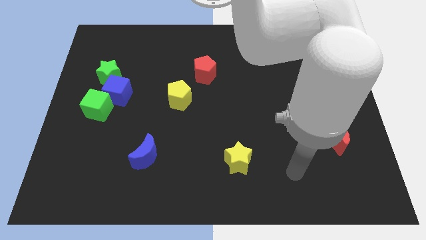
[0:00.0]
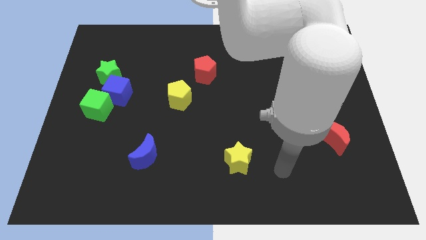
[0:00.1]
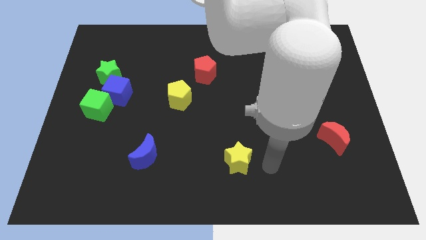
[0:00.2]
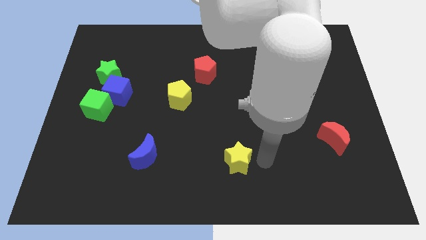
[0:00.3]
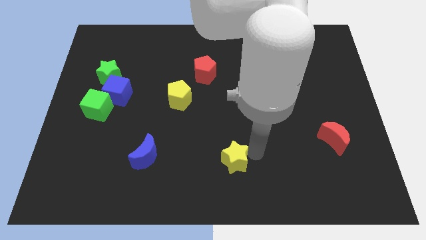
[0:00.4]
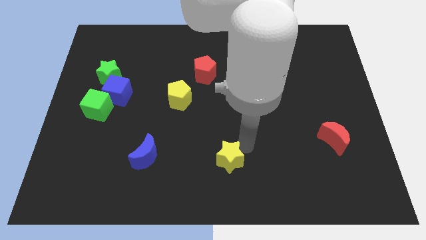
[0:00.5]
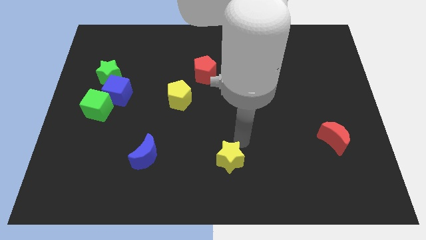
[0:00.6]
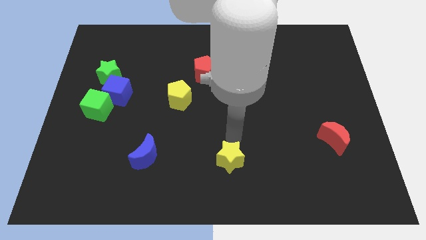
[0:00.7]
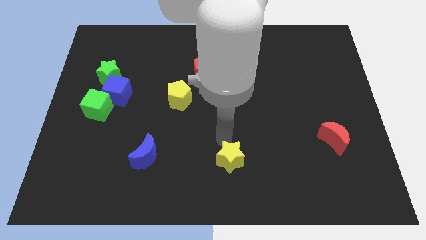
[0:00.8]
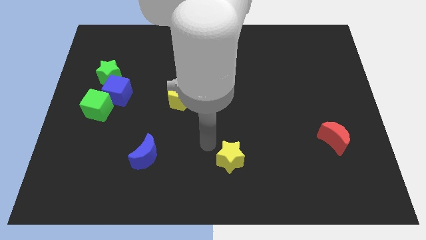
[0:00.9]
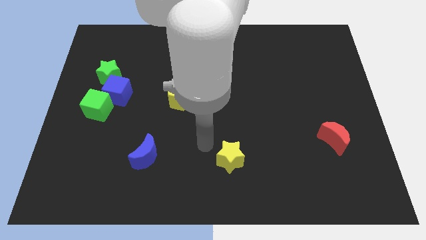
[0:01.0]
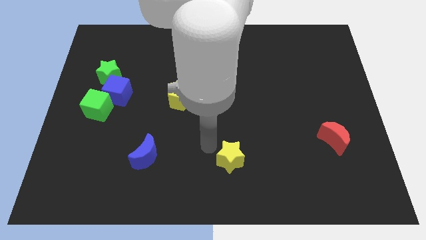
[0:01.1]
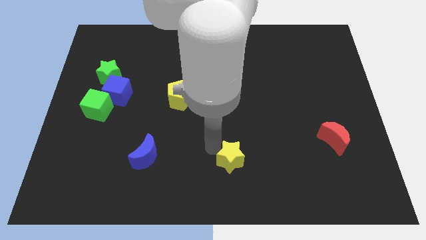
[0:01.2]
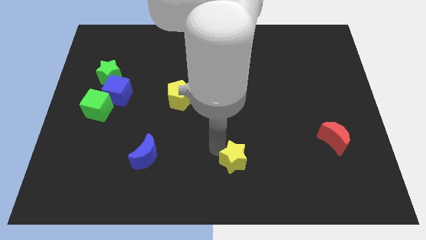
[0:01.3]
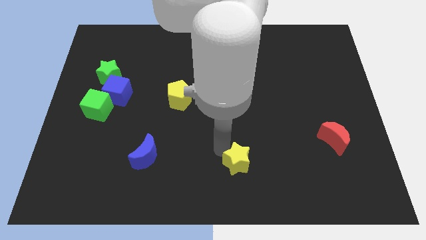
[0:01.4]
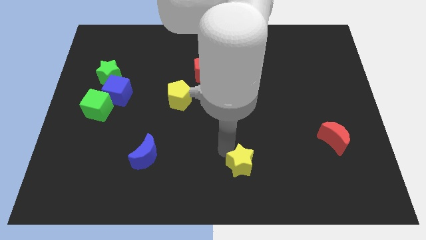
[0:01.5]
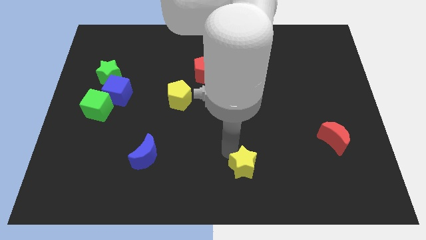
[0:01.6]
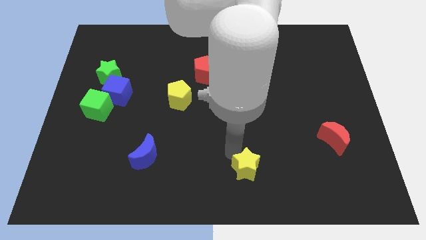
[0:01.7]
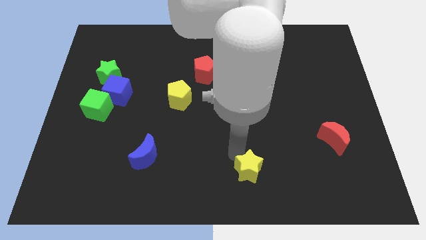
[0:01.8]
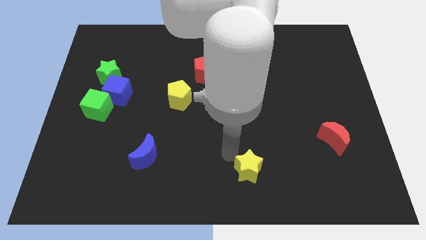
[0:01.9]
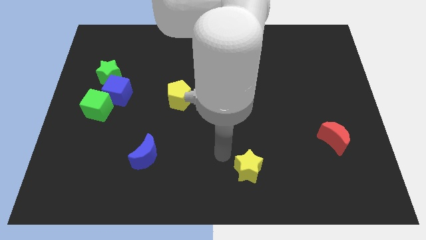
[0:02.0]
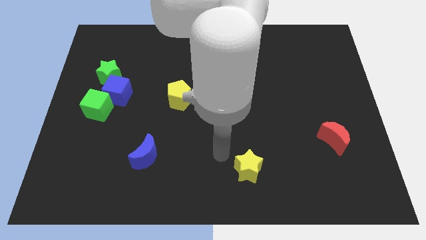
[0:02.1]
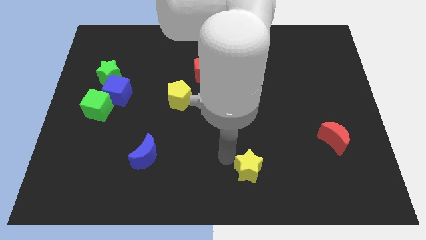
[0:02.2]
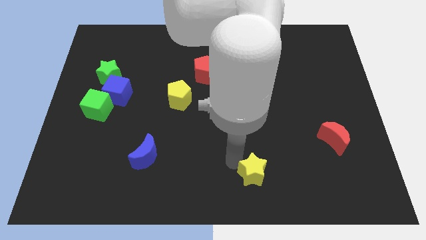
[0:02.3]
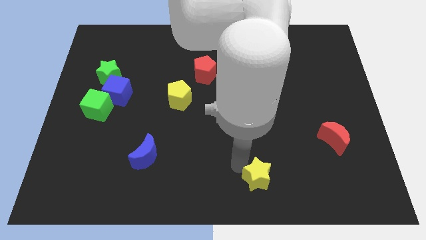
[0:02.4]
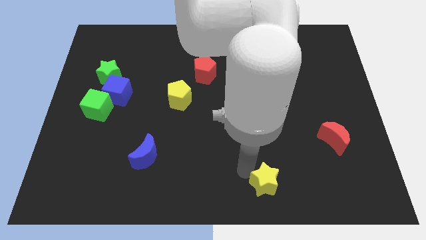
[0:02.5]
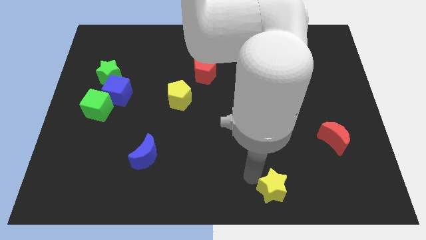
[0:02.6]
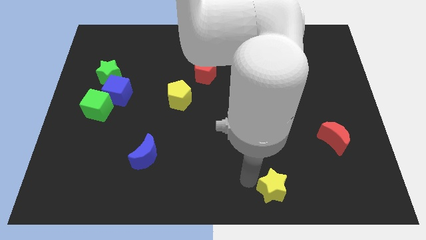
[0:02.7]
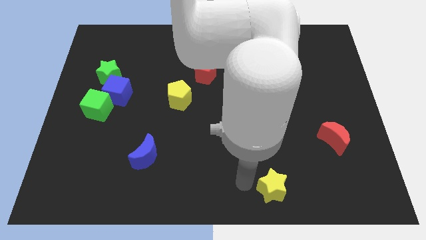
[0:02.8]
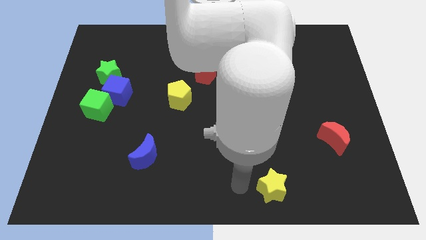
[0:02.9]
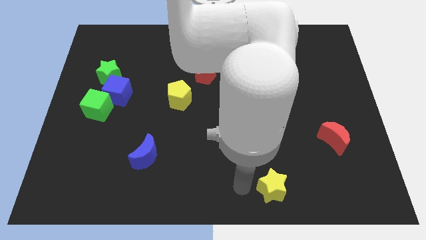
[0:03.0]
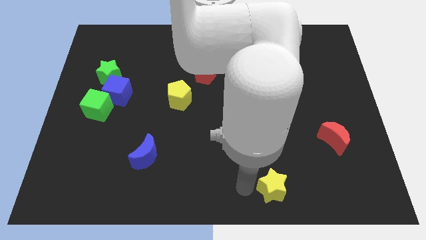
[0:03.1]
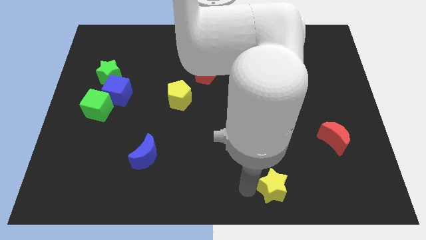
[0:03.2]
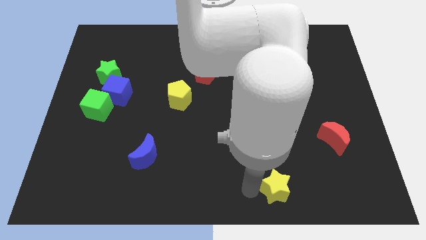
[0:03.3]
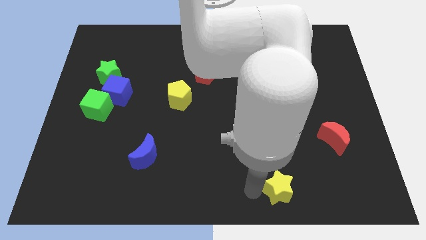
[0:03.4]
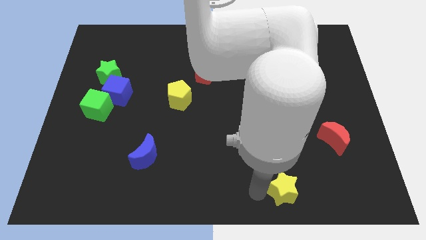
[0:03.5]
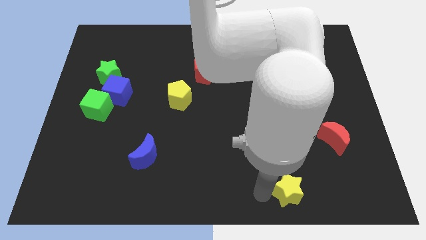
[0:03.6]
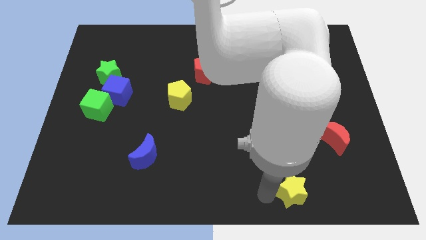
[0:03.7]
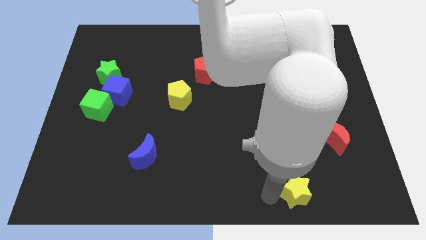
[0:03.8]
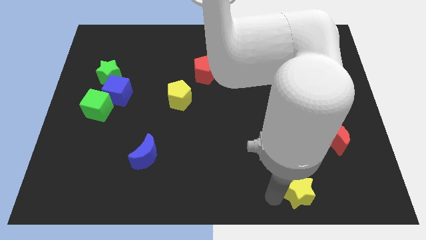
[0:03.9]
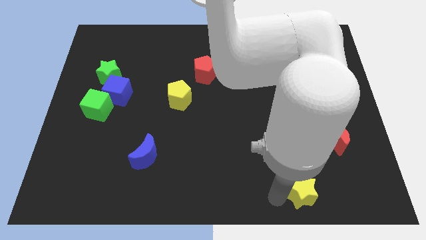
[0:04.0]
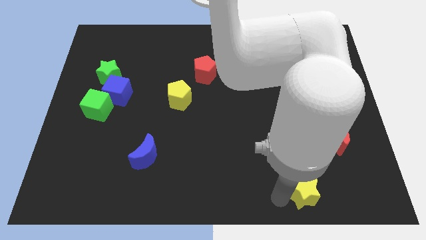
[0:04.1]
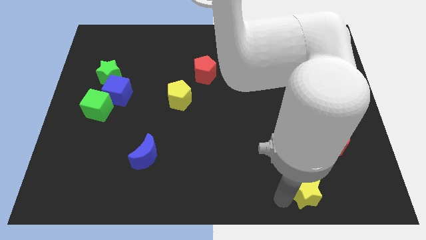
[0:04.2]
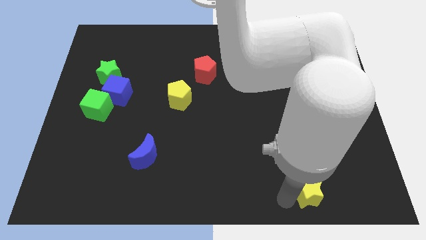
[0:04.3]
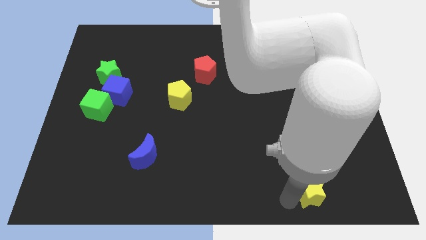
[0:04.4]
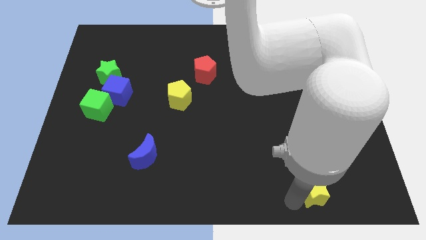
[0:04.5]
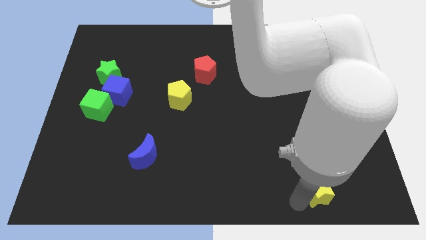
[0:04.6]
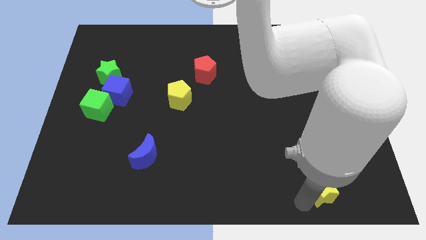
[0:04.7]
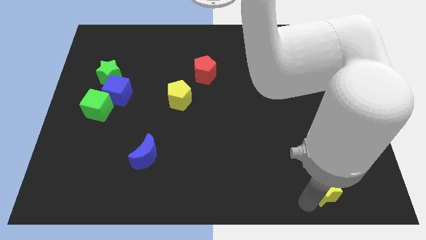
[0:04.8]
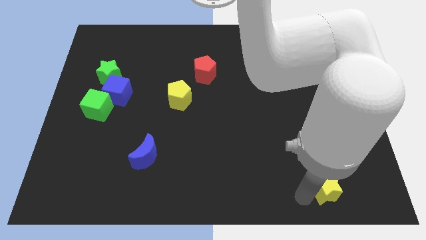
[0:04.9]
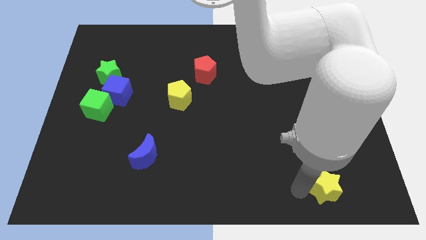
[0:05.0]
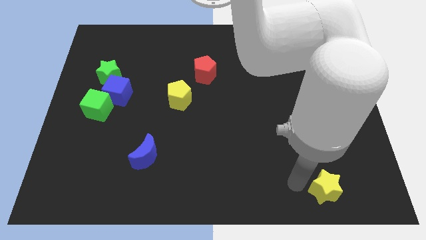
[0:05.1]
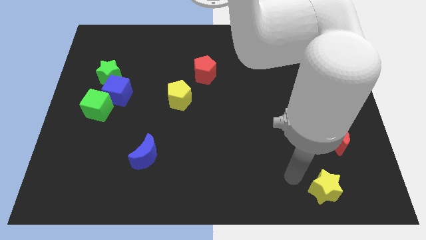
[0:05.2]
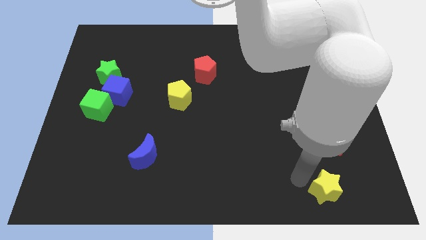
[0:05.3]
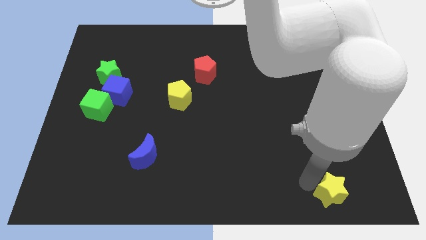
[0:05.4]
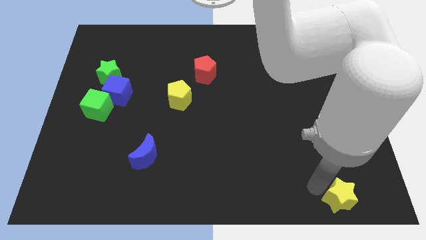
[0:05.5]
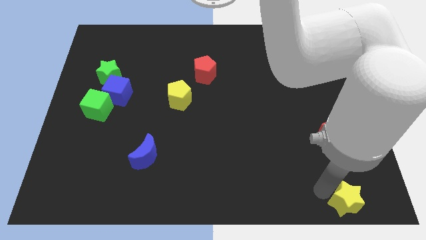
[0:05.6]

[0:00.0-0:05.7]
slide the yellow star to the lower right corner
